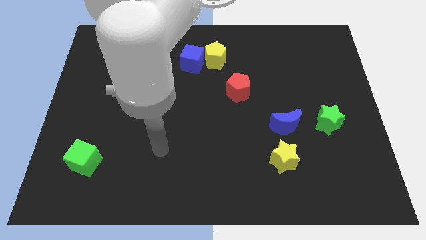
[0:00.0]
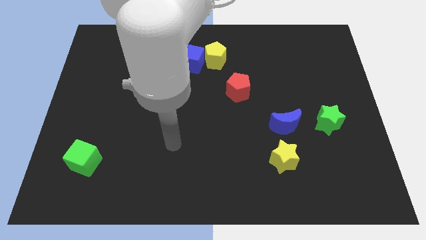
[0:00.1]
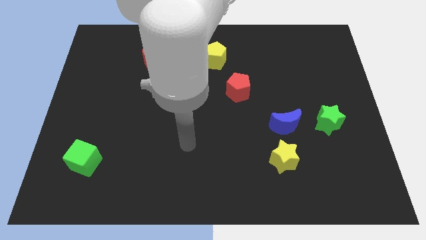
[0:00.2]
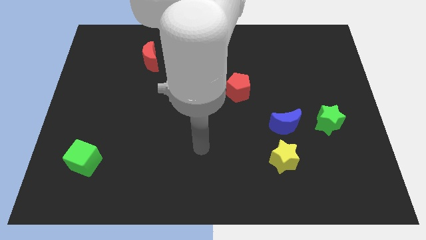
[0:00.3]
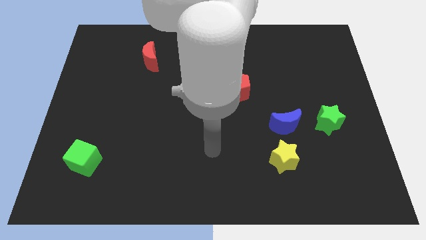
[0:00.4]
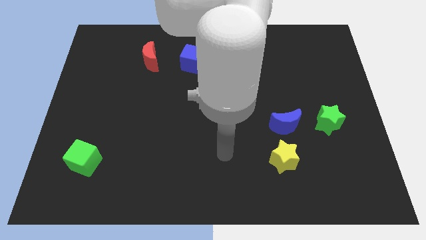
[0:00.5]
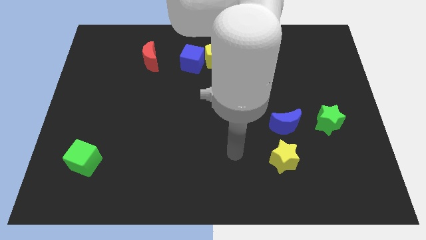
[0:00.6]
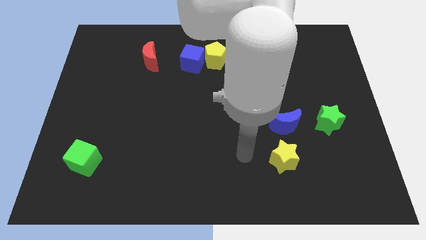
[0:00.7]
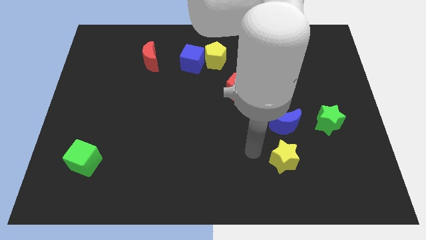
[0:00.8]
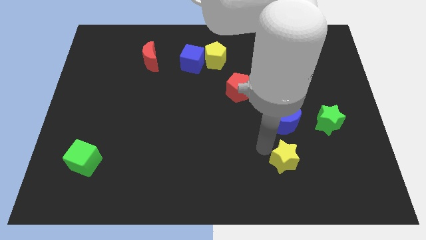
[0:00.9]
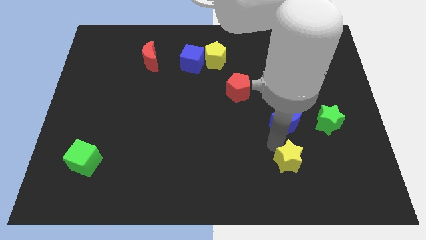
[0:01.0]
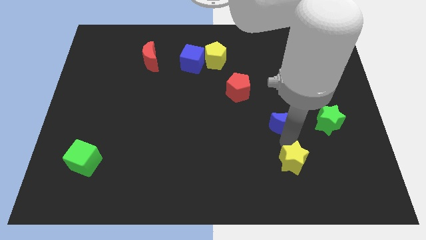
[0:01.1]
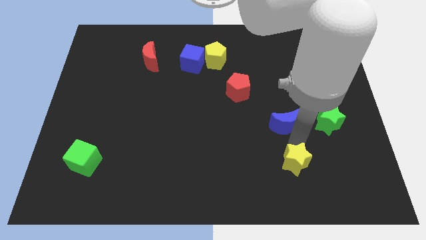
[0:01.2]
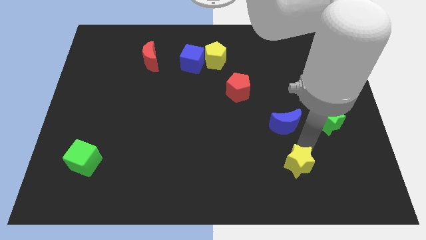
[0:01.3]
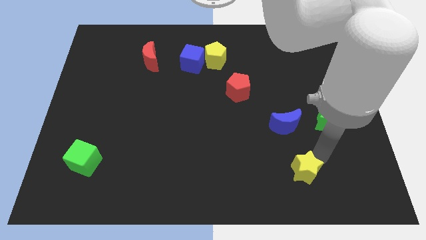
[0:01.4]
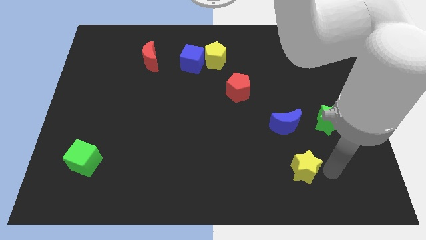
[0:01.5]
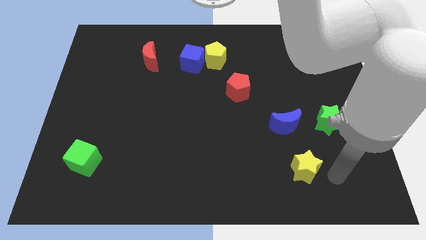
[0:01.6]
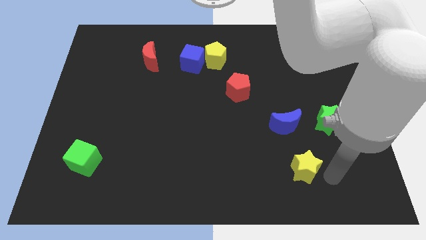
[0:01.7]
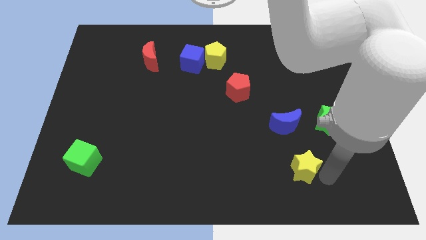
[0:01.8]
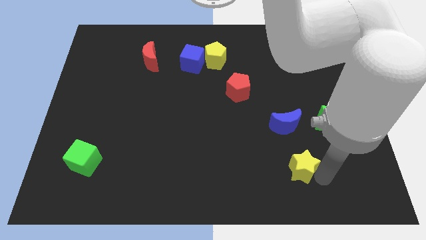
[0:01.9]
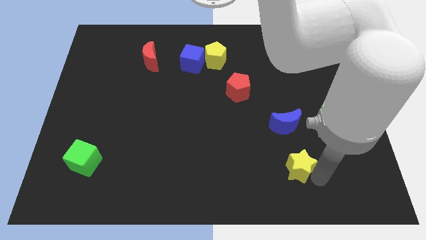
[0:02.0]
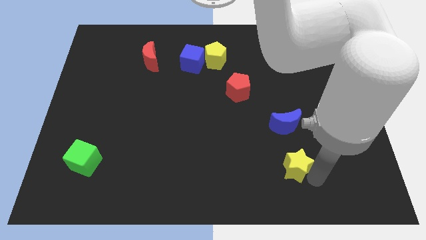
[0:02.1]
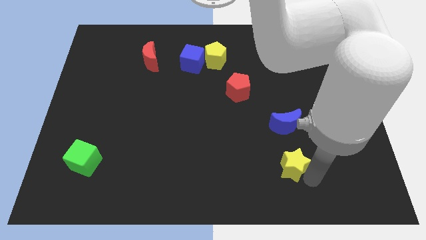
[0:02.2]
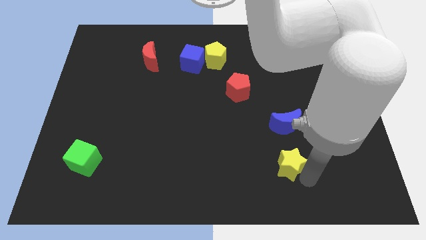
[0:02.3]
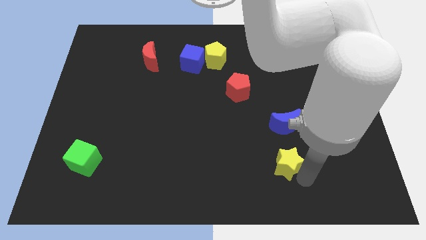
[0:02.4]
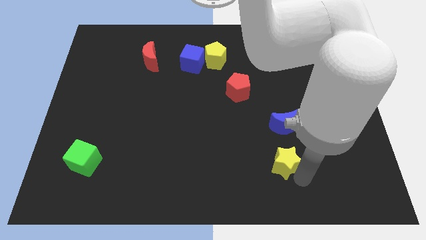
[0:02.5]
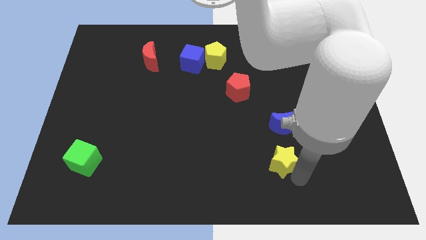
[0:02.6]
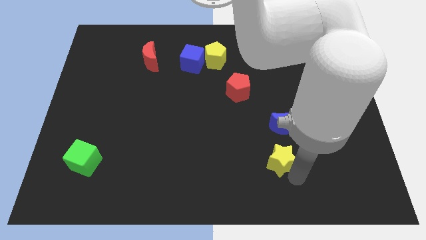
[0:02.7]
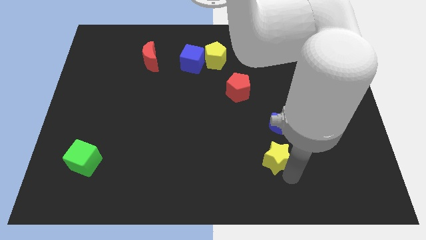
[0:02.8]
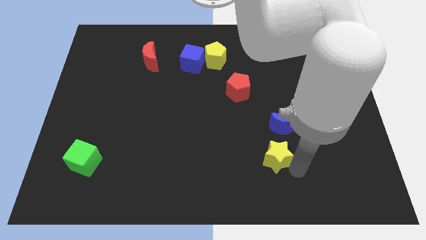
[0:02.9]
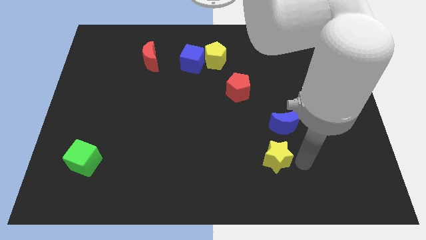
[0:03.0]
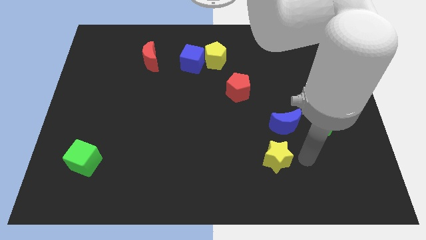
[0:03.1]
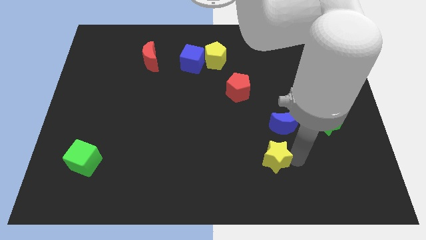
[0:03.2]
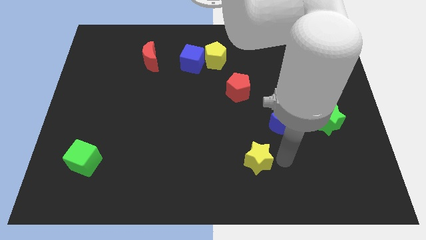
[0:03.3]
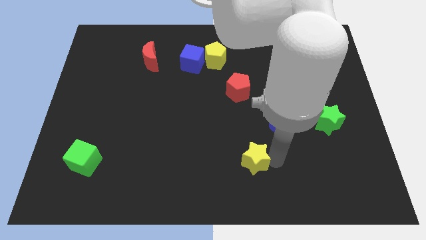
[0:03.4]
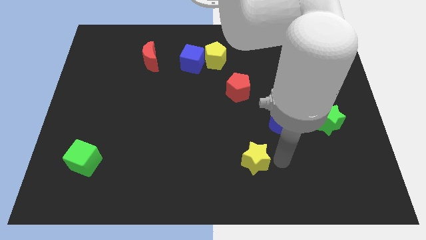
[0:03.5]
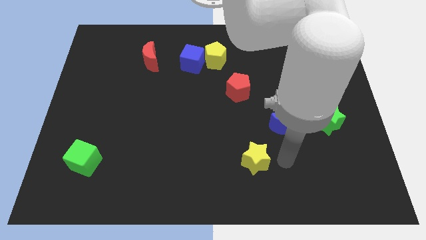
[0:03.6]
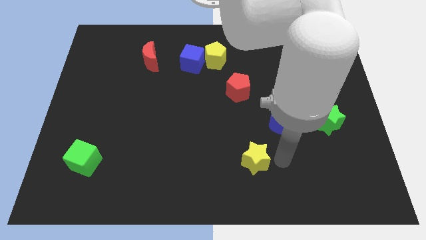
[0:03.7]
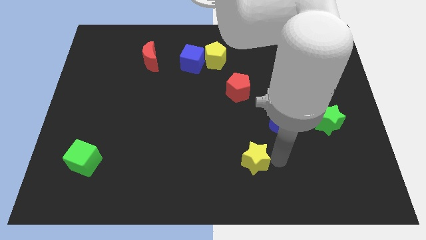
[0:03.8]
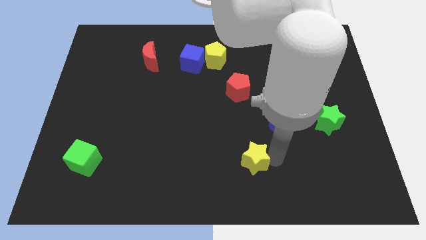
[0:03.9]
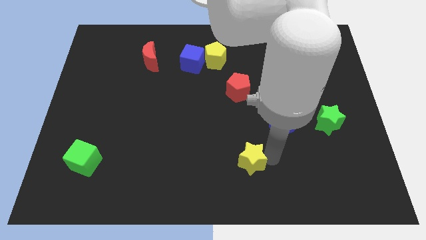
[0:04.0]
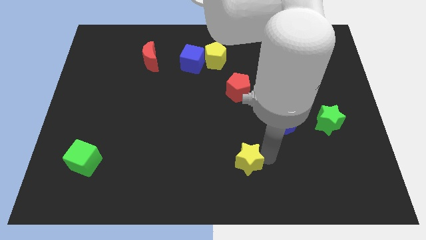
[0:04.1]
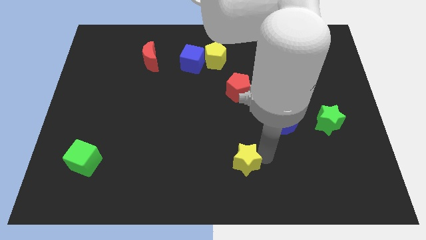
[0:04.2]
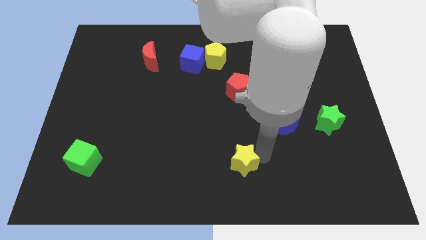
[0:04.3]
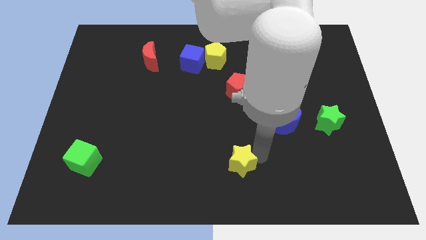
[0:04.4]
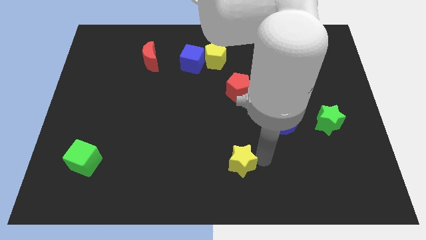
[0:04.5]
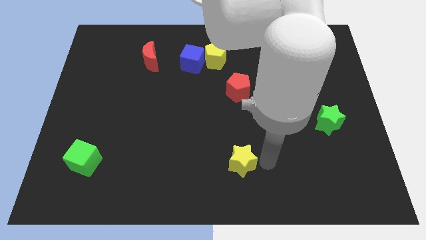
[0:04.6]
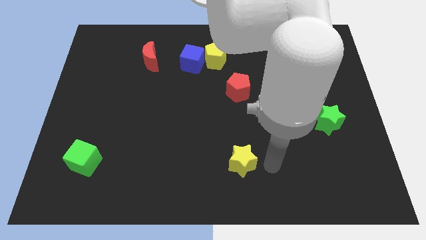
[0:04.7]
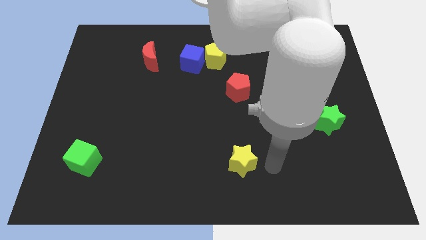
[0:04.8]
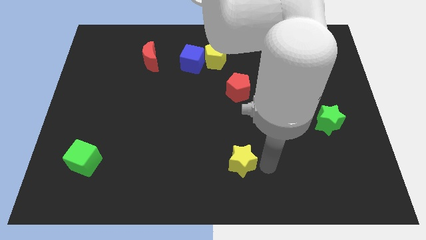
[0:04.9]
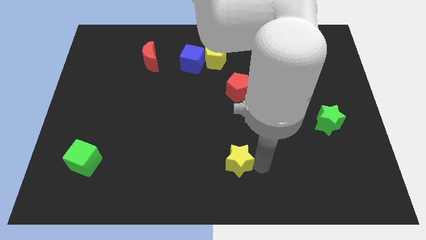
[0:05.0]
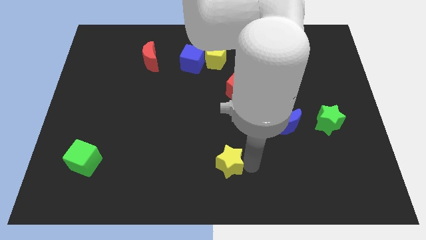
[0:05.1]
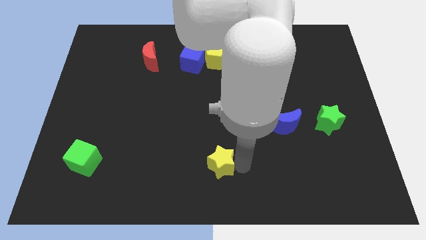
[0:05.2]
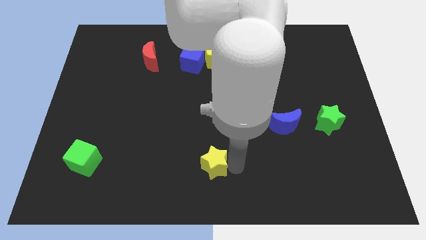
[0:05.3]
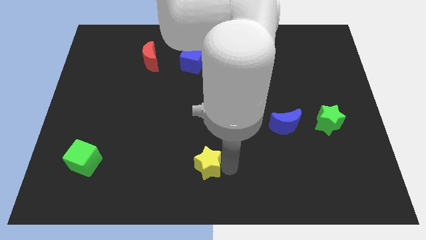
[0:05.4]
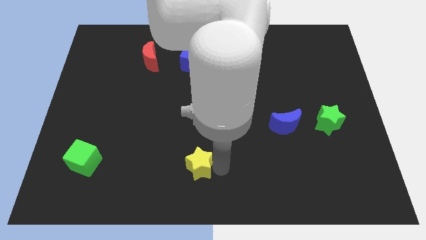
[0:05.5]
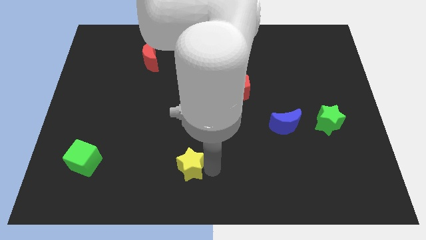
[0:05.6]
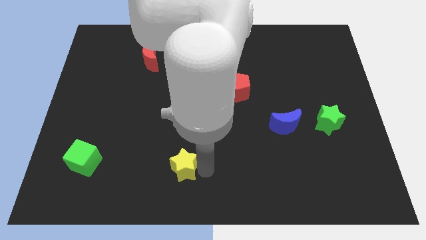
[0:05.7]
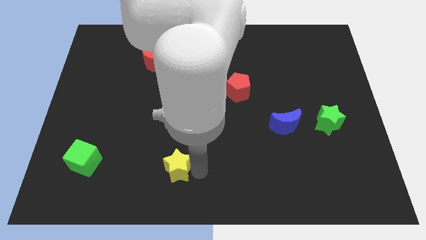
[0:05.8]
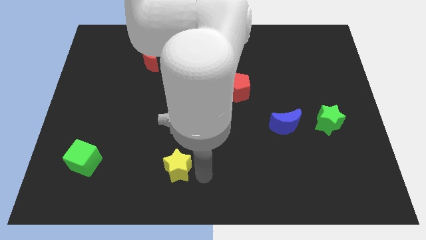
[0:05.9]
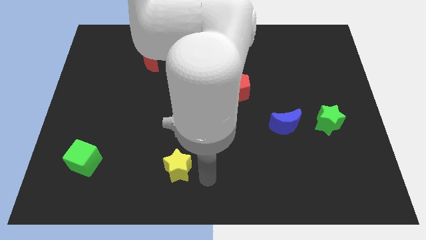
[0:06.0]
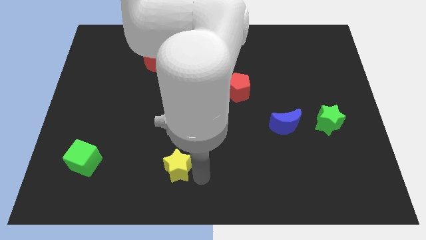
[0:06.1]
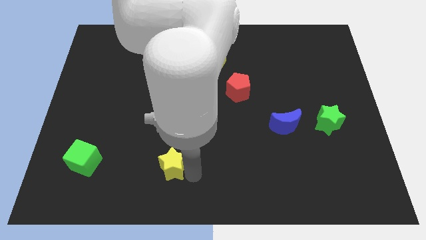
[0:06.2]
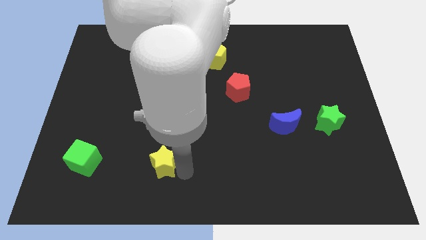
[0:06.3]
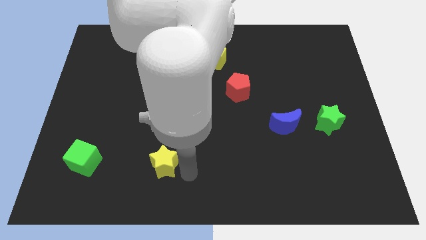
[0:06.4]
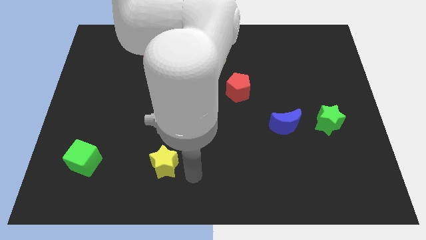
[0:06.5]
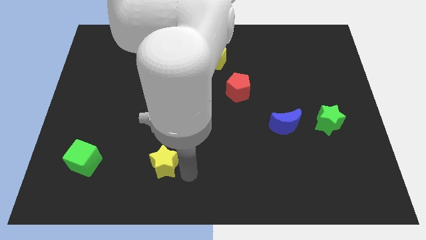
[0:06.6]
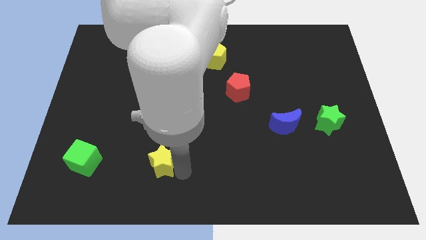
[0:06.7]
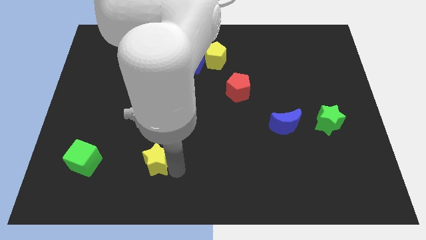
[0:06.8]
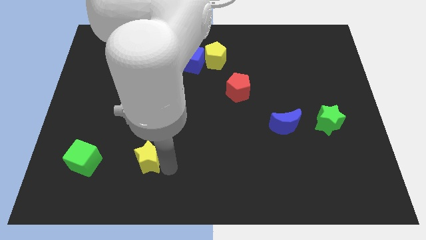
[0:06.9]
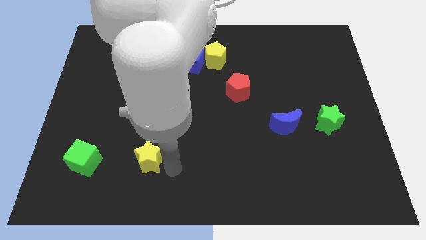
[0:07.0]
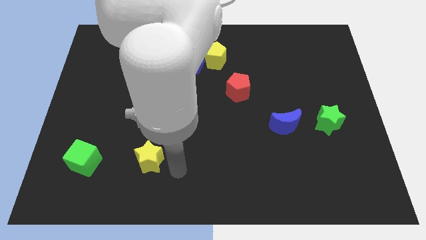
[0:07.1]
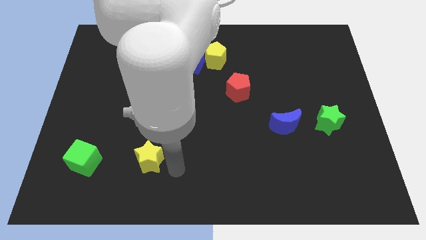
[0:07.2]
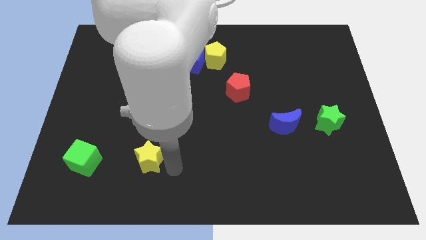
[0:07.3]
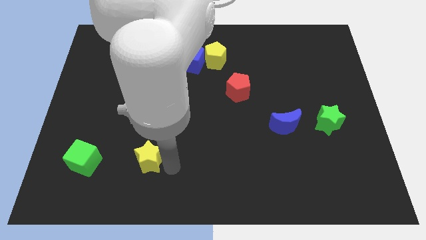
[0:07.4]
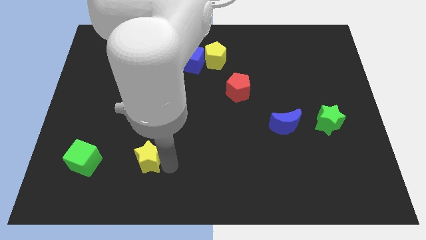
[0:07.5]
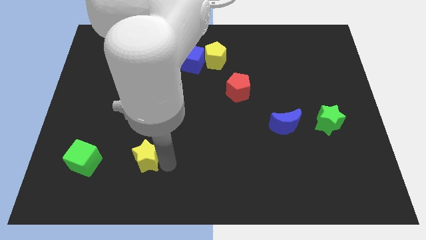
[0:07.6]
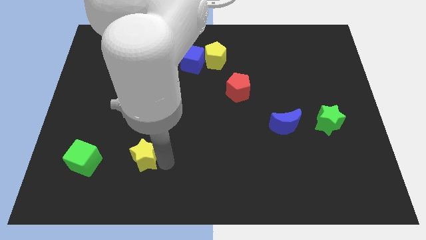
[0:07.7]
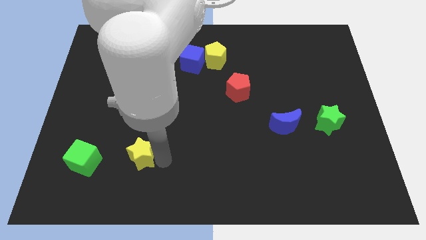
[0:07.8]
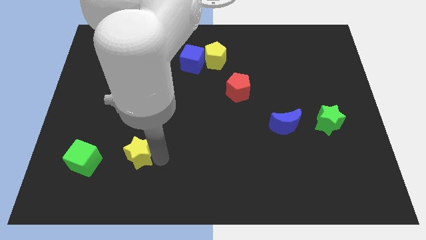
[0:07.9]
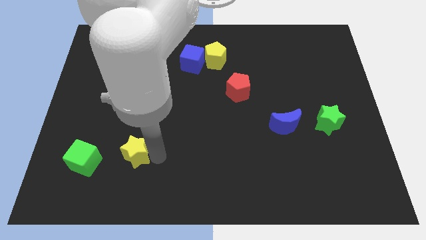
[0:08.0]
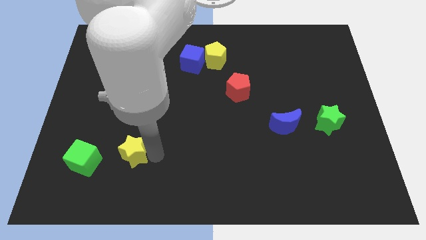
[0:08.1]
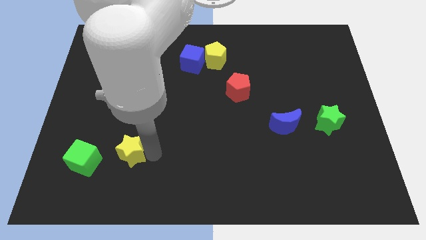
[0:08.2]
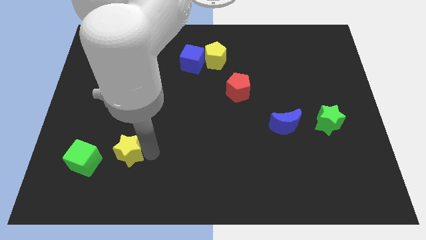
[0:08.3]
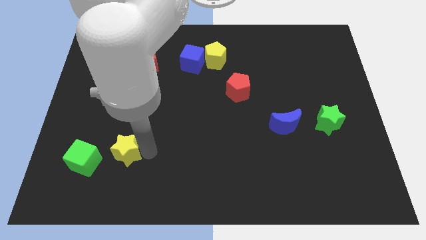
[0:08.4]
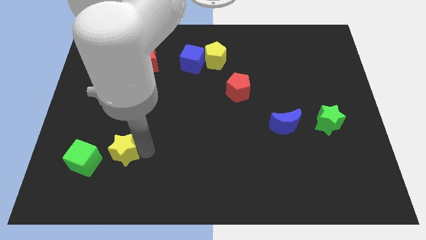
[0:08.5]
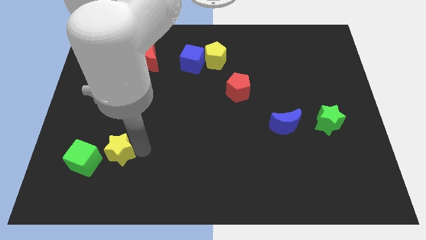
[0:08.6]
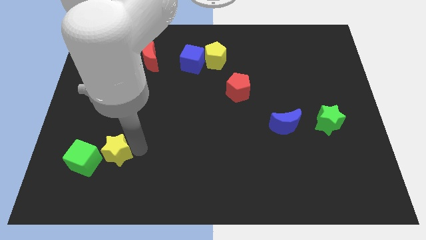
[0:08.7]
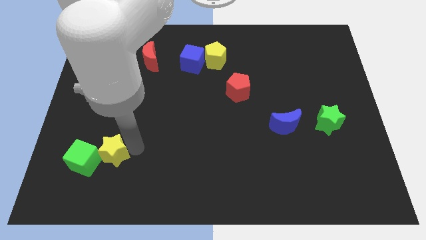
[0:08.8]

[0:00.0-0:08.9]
slide the yellow star close to the green cube
